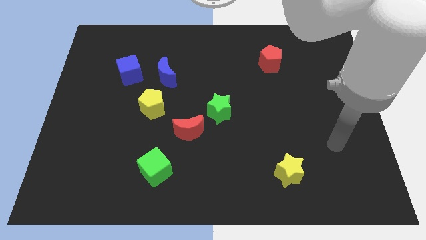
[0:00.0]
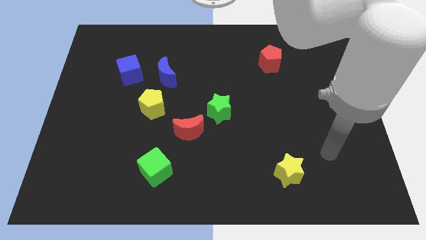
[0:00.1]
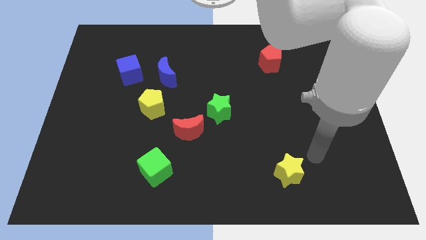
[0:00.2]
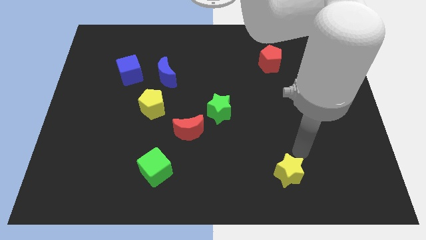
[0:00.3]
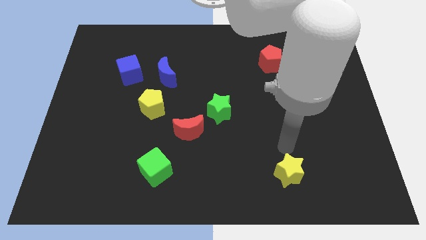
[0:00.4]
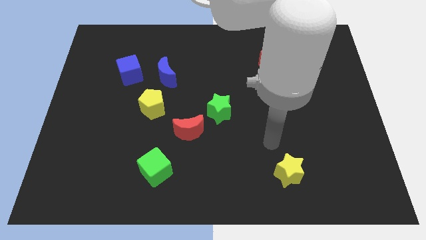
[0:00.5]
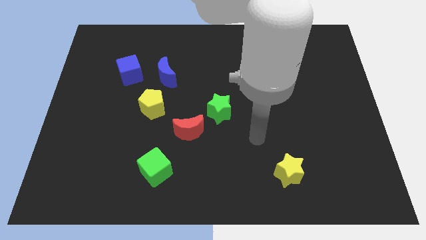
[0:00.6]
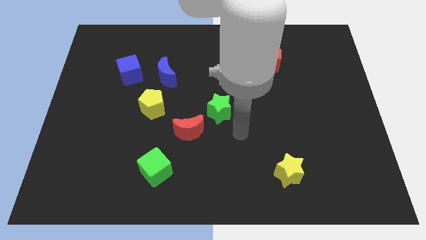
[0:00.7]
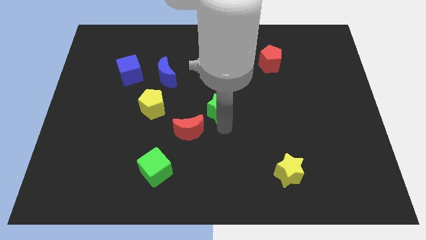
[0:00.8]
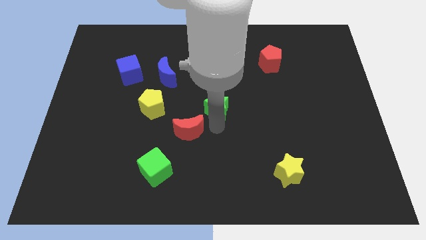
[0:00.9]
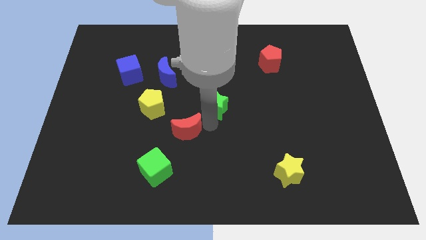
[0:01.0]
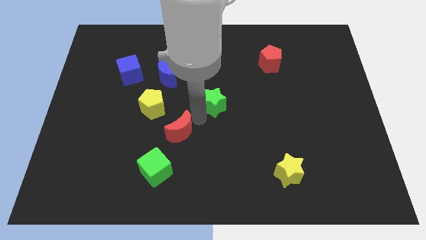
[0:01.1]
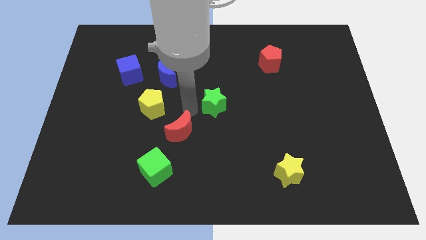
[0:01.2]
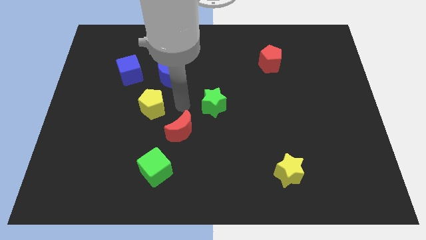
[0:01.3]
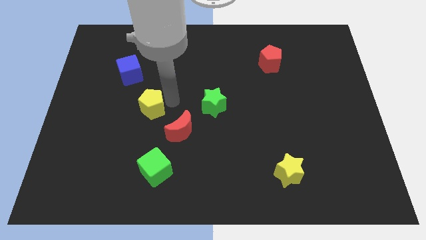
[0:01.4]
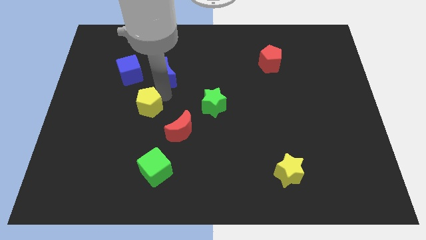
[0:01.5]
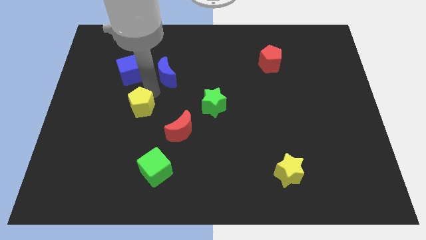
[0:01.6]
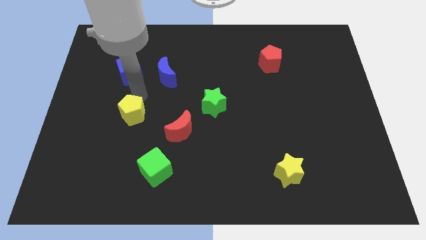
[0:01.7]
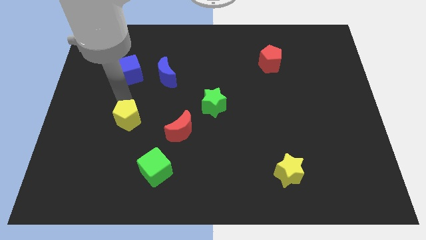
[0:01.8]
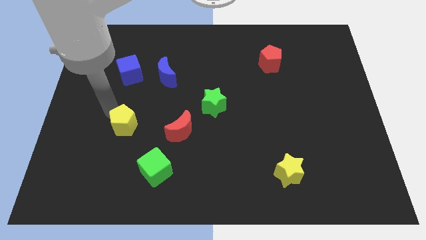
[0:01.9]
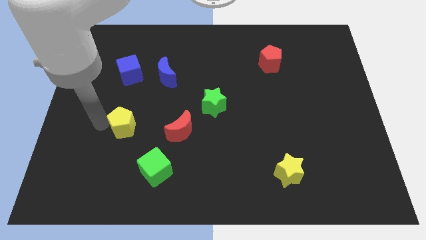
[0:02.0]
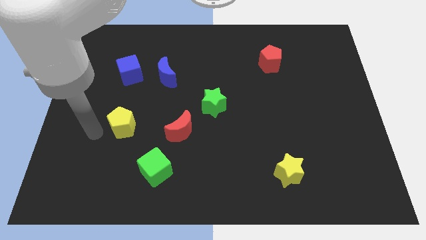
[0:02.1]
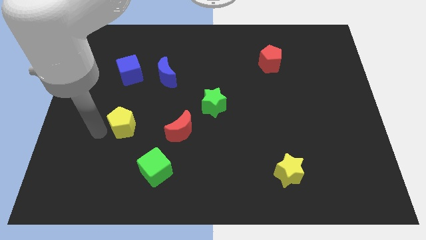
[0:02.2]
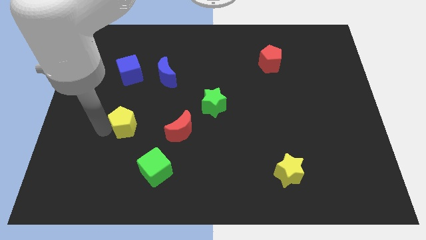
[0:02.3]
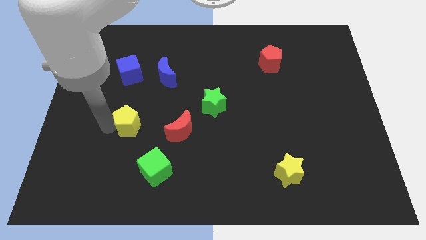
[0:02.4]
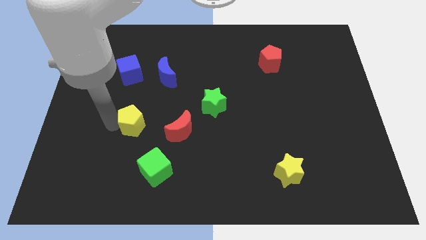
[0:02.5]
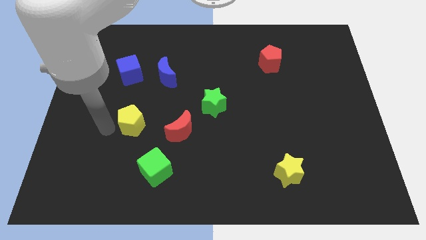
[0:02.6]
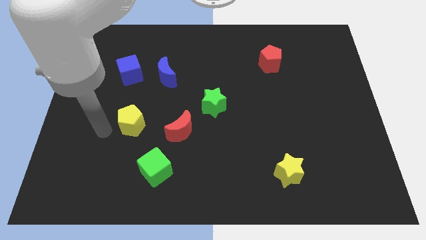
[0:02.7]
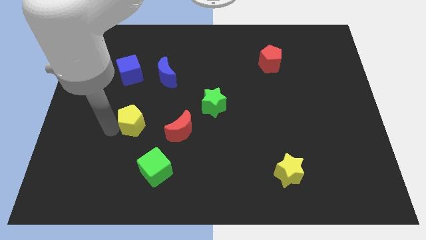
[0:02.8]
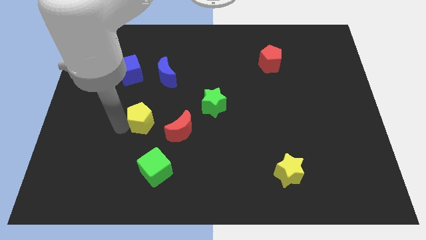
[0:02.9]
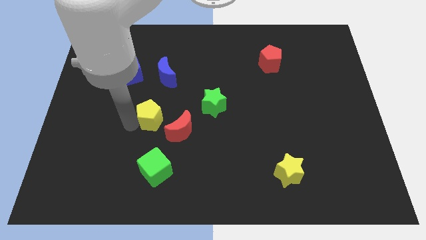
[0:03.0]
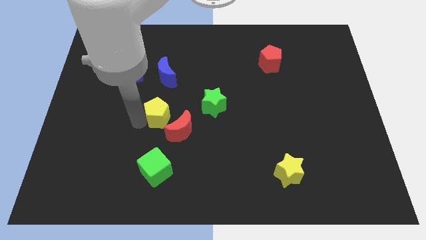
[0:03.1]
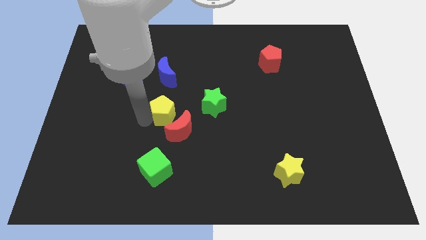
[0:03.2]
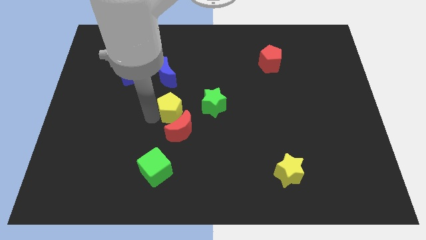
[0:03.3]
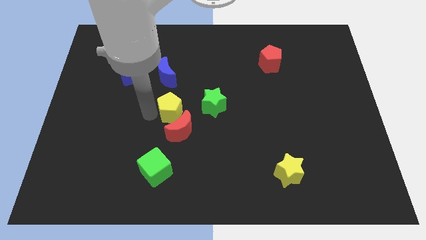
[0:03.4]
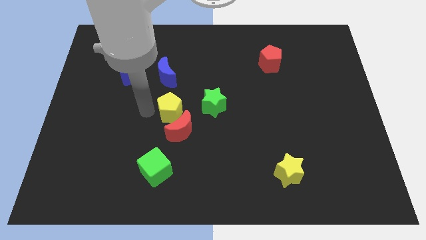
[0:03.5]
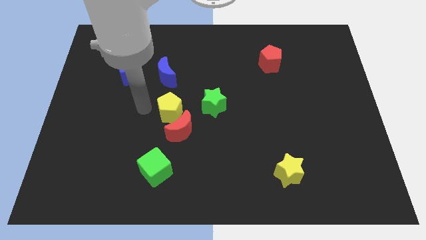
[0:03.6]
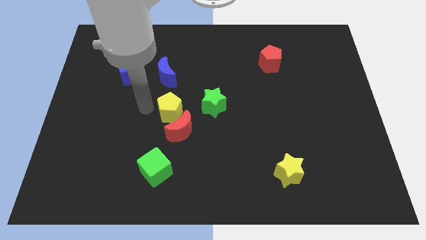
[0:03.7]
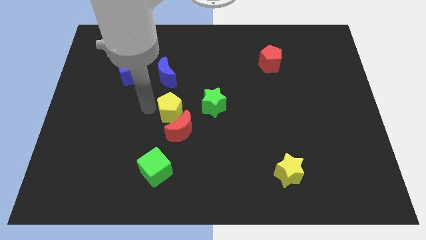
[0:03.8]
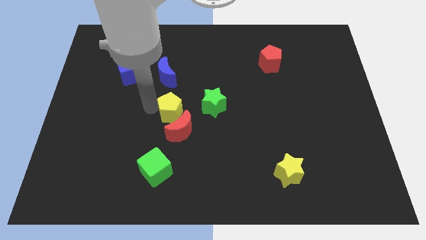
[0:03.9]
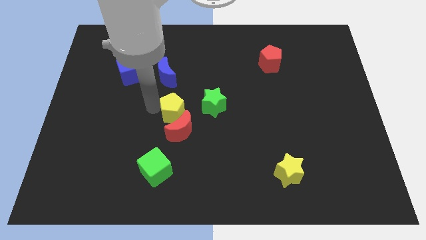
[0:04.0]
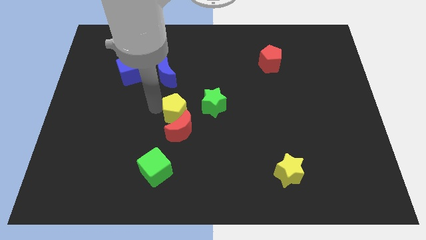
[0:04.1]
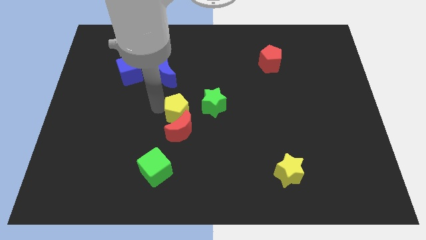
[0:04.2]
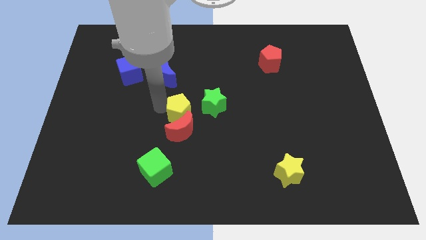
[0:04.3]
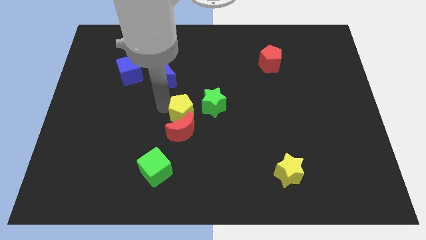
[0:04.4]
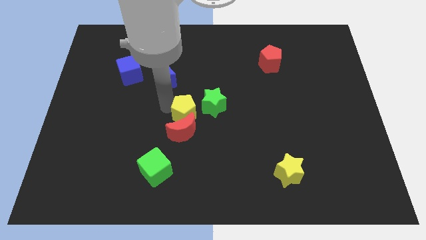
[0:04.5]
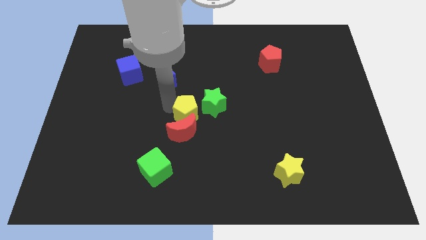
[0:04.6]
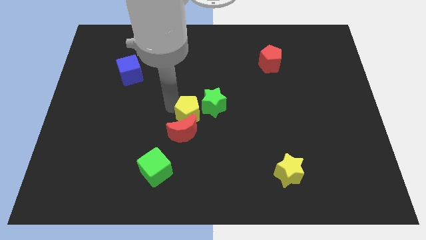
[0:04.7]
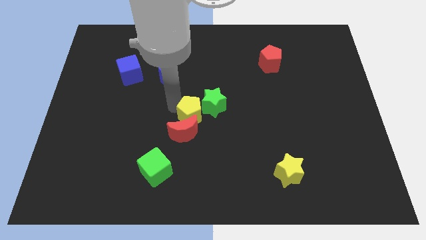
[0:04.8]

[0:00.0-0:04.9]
slightly move the yellow pentagon diagonally downwards and to the right

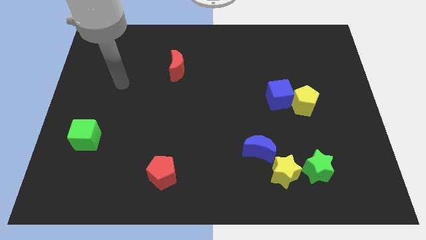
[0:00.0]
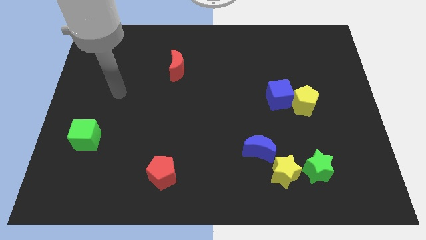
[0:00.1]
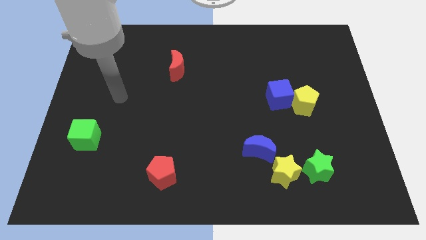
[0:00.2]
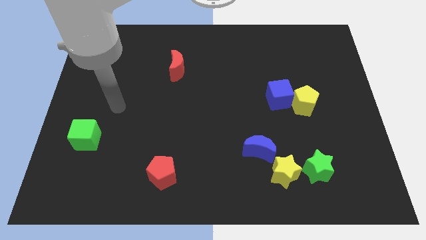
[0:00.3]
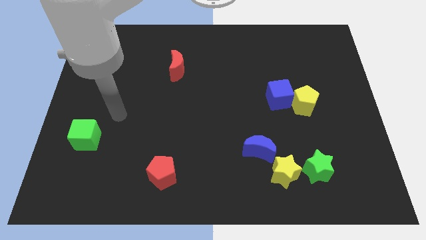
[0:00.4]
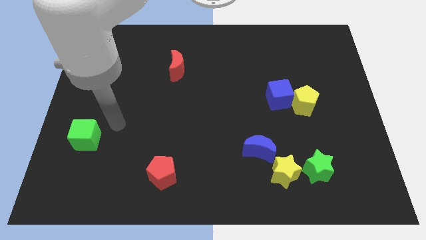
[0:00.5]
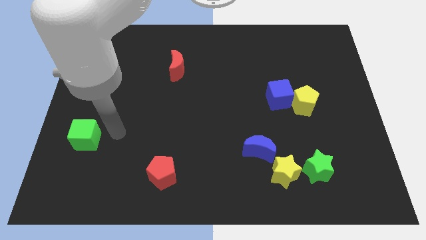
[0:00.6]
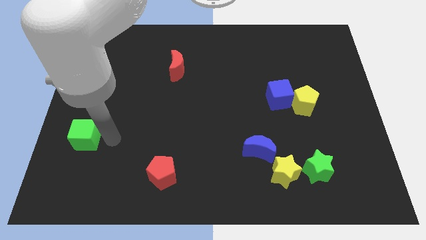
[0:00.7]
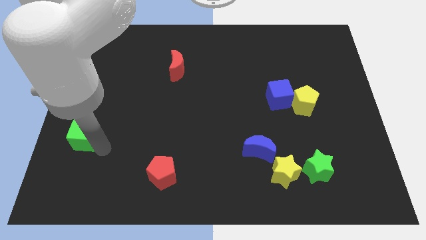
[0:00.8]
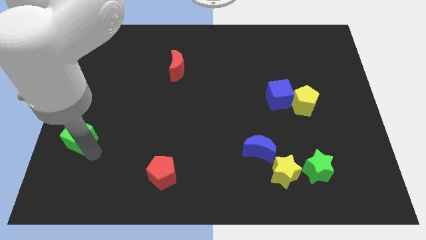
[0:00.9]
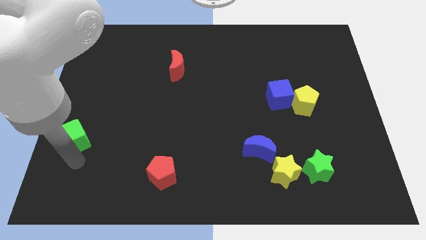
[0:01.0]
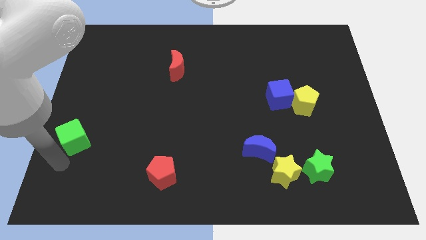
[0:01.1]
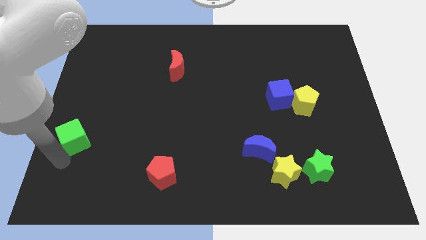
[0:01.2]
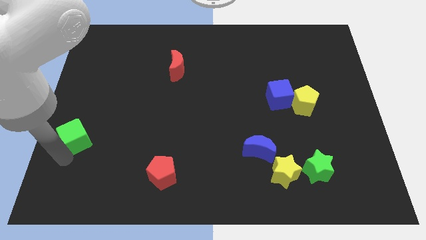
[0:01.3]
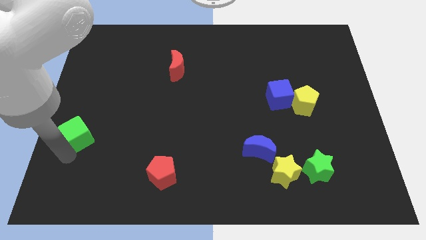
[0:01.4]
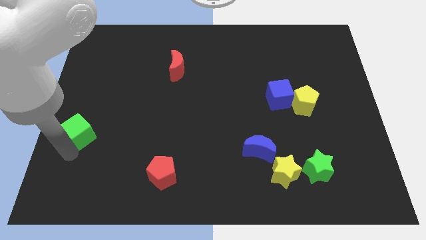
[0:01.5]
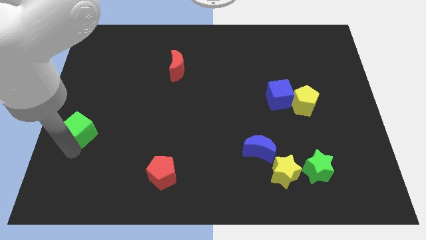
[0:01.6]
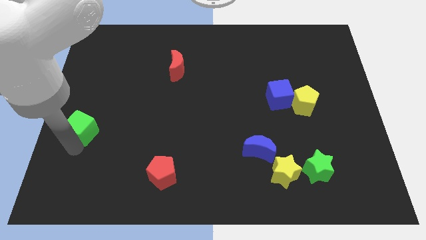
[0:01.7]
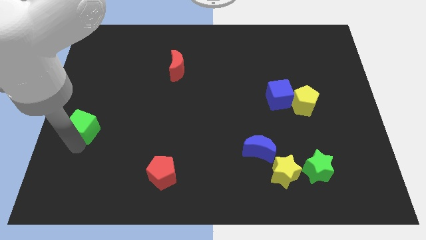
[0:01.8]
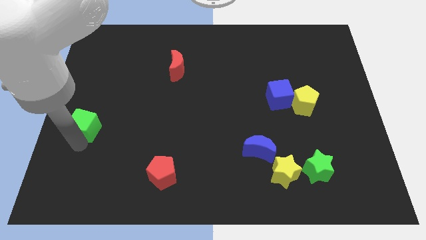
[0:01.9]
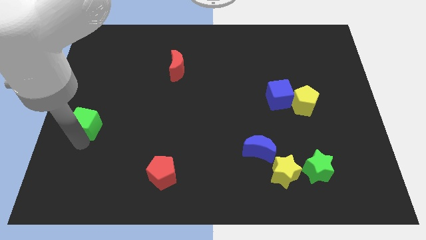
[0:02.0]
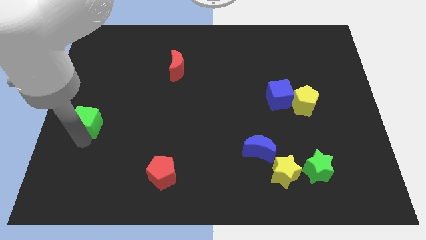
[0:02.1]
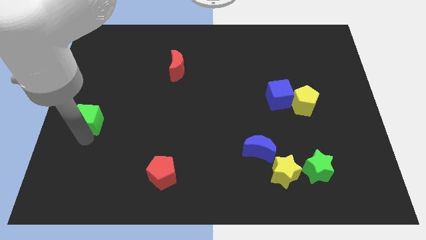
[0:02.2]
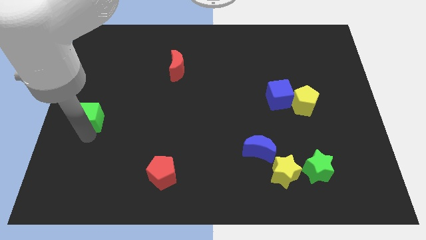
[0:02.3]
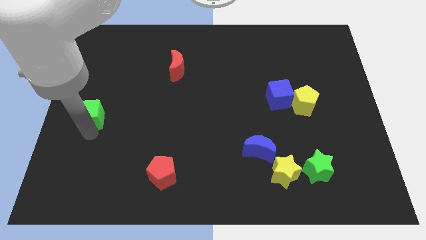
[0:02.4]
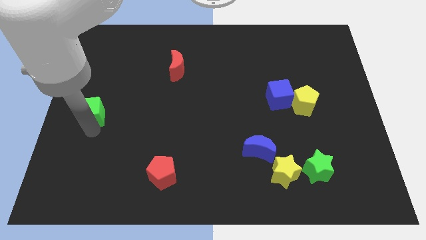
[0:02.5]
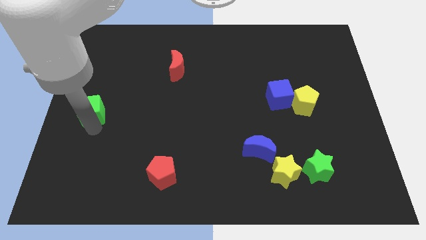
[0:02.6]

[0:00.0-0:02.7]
move the green cube somewhat up
